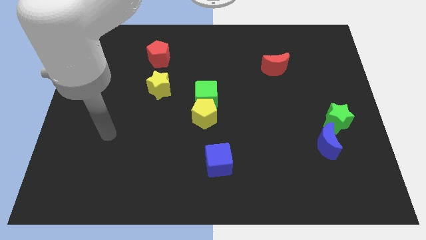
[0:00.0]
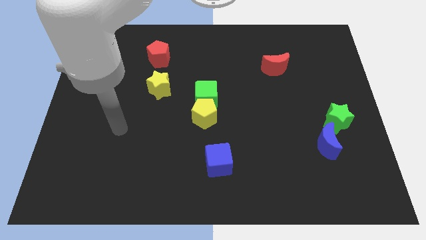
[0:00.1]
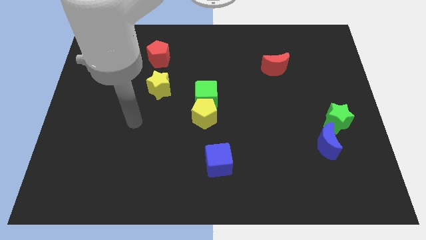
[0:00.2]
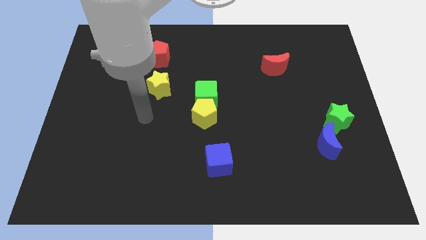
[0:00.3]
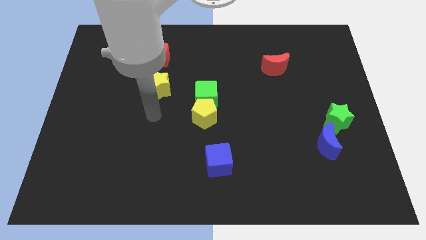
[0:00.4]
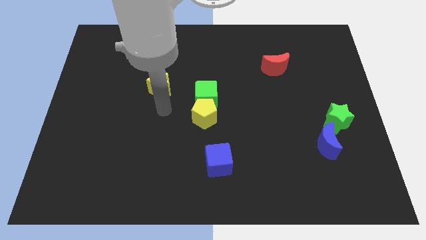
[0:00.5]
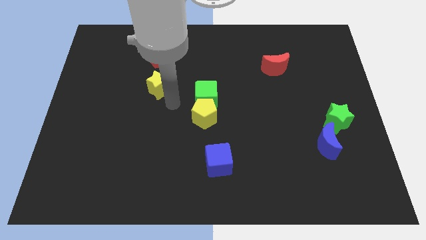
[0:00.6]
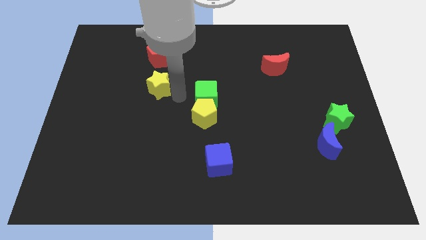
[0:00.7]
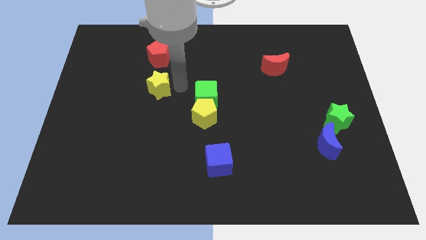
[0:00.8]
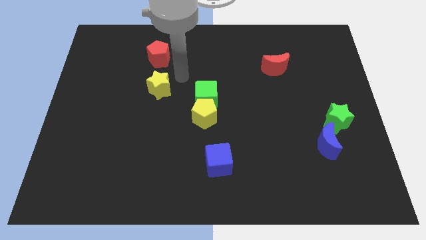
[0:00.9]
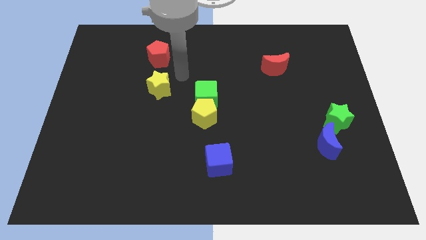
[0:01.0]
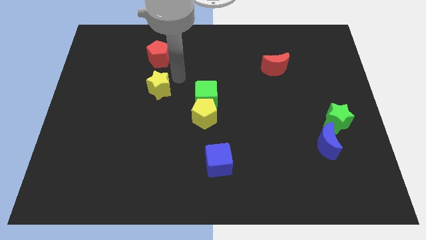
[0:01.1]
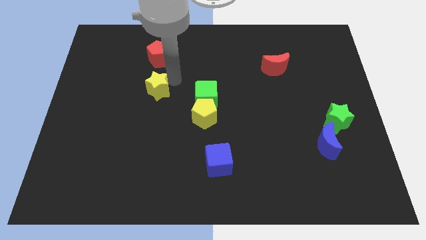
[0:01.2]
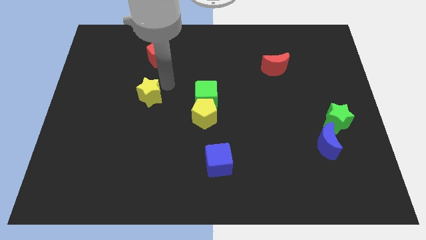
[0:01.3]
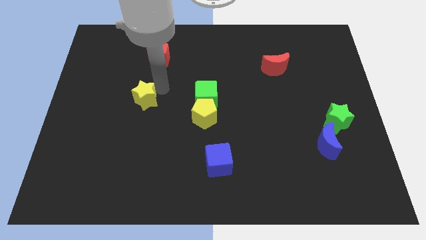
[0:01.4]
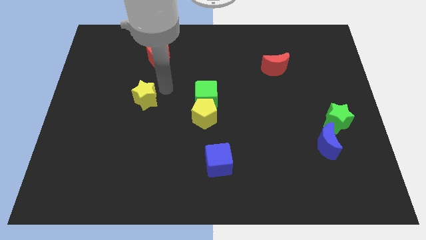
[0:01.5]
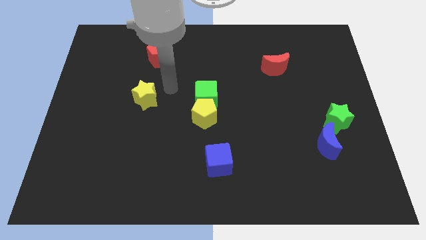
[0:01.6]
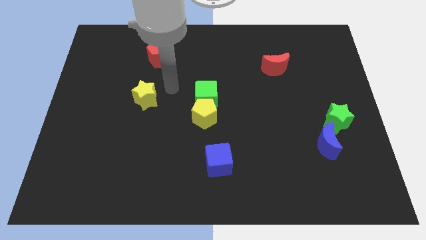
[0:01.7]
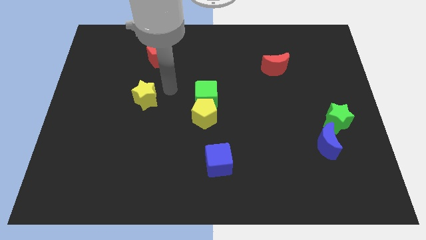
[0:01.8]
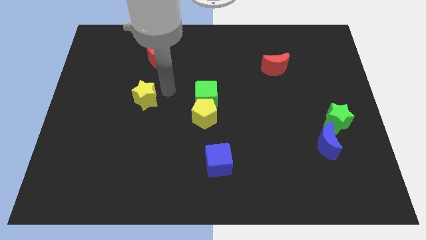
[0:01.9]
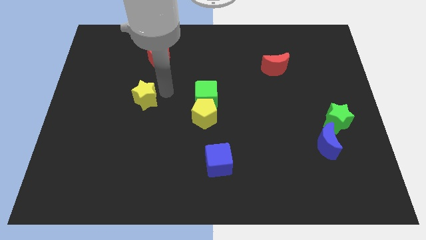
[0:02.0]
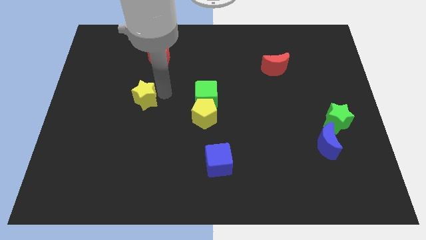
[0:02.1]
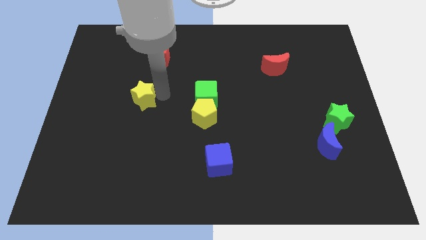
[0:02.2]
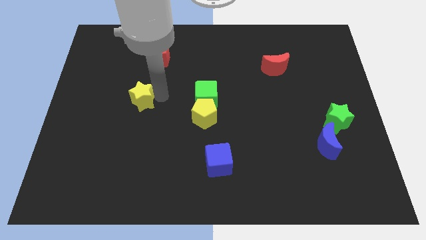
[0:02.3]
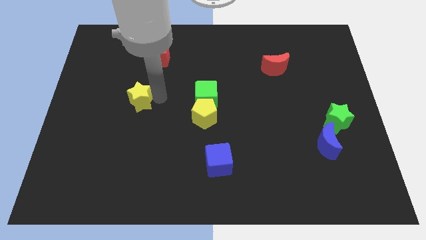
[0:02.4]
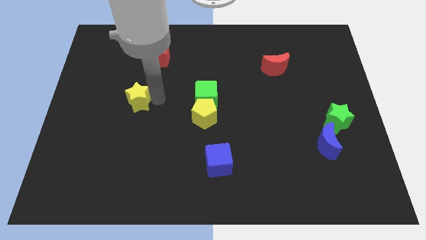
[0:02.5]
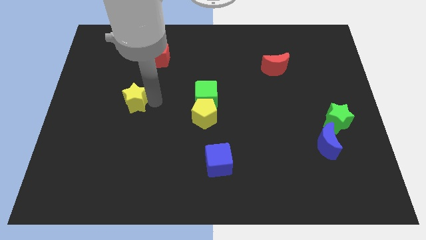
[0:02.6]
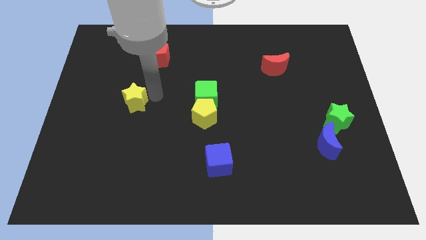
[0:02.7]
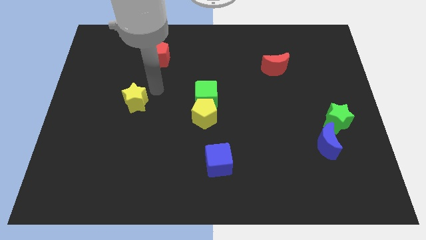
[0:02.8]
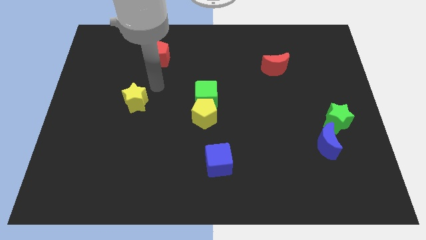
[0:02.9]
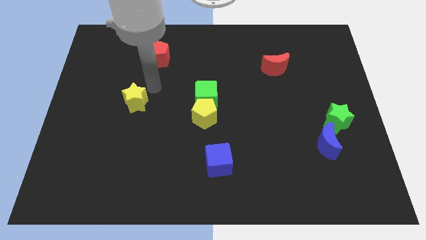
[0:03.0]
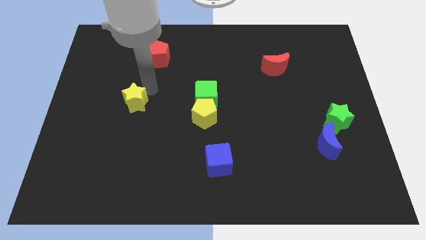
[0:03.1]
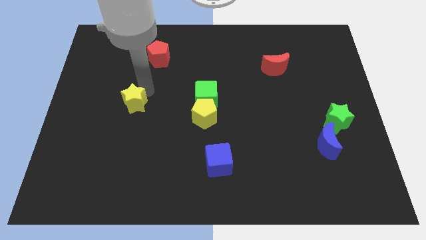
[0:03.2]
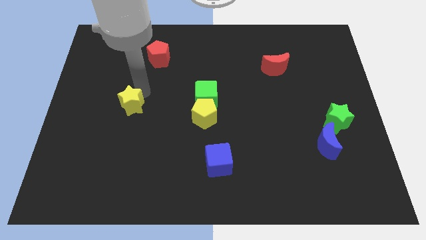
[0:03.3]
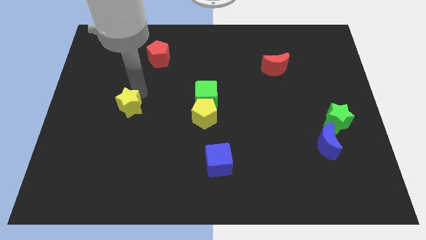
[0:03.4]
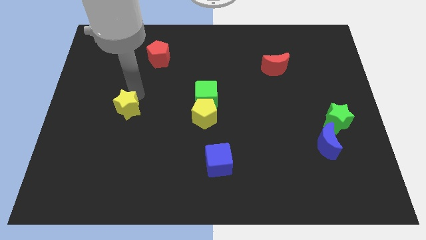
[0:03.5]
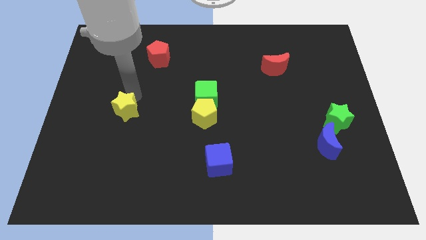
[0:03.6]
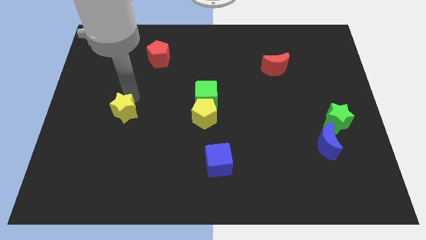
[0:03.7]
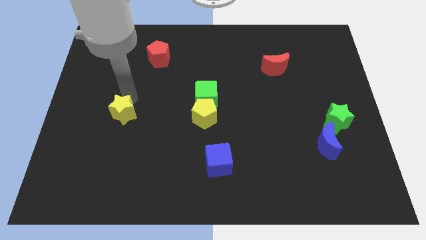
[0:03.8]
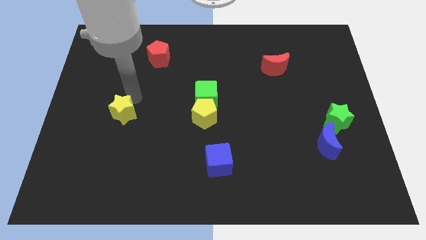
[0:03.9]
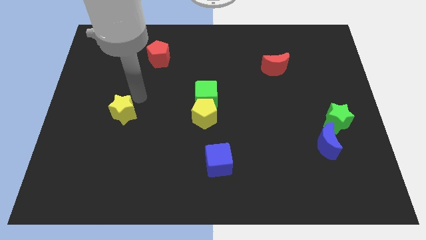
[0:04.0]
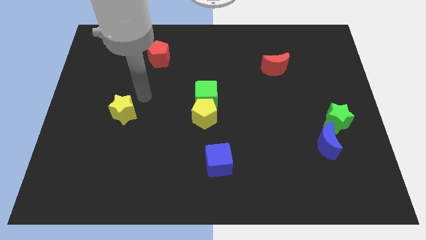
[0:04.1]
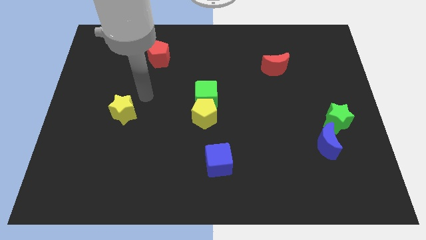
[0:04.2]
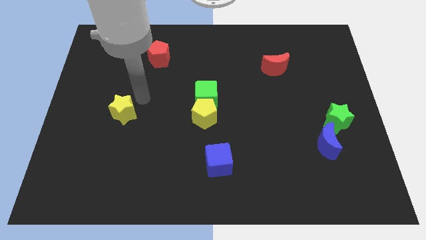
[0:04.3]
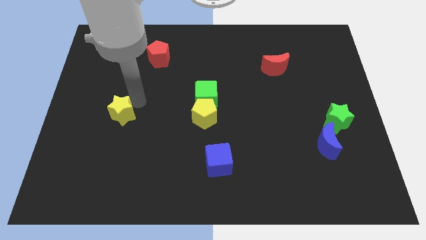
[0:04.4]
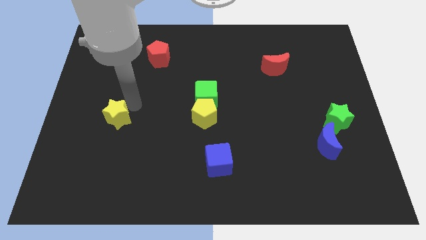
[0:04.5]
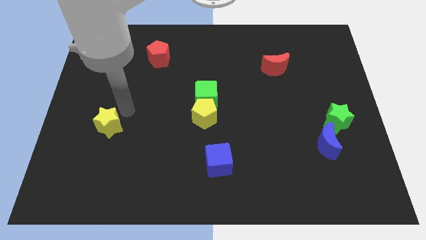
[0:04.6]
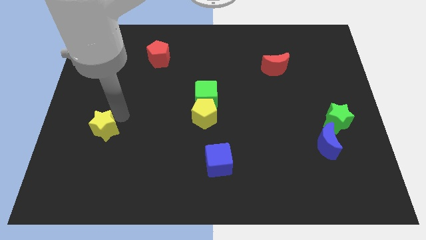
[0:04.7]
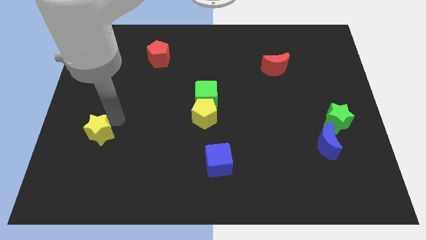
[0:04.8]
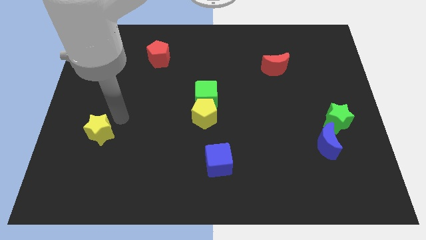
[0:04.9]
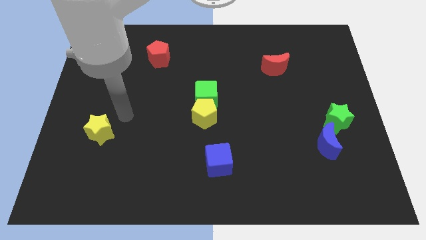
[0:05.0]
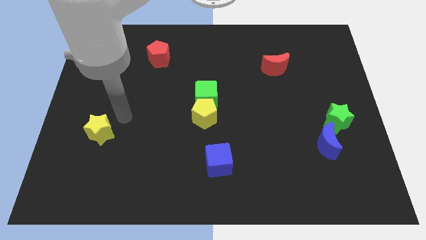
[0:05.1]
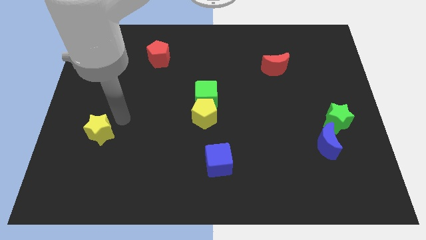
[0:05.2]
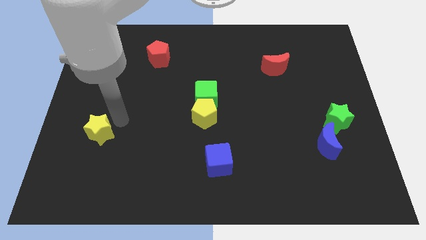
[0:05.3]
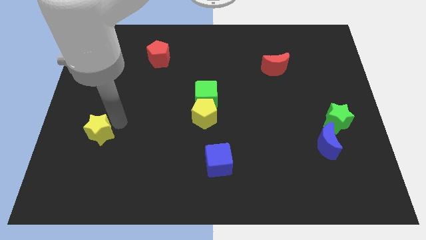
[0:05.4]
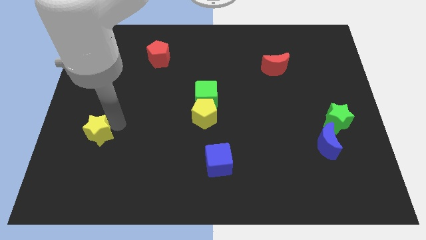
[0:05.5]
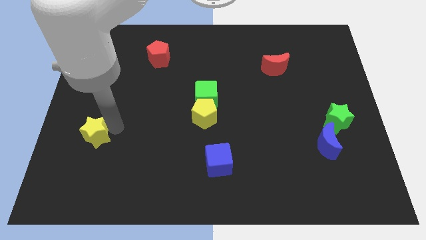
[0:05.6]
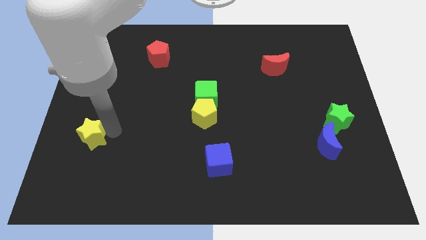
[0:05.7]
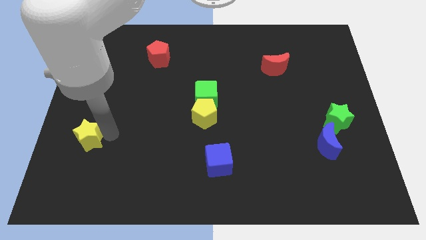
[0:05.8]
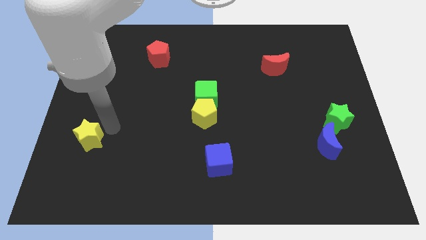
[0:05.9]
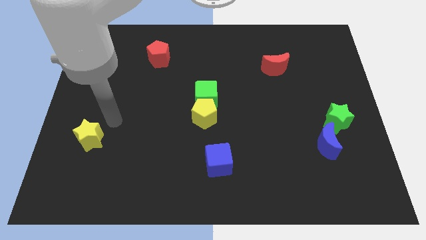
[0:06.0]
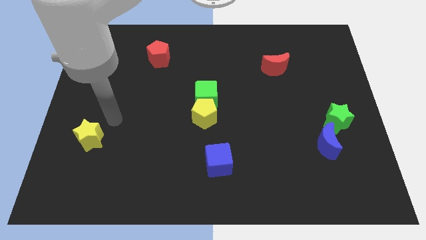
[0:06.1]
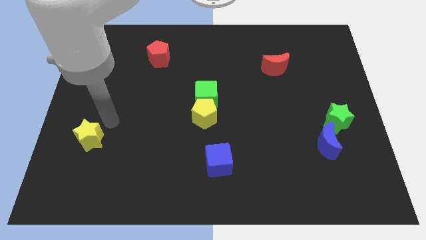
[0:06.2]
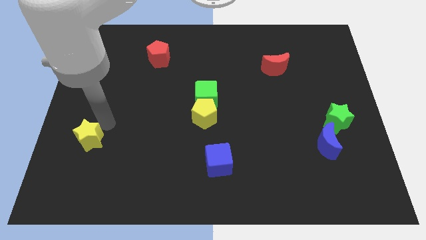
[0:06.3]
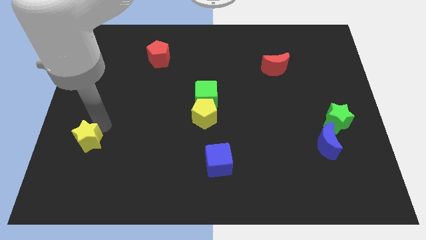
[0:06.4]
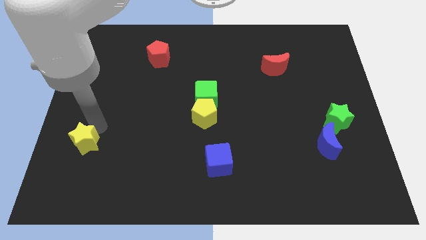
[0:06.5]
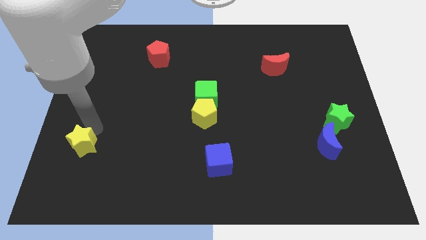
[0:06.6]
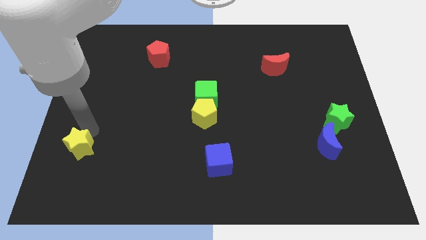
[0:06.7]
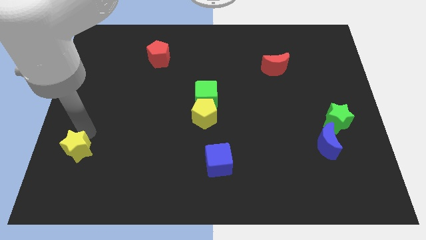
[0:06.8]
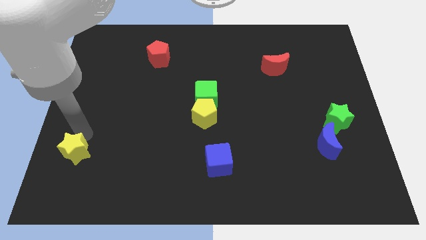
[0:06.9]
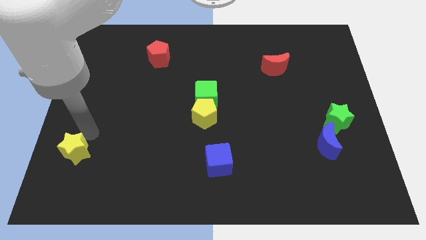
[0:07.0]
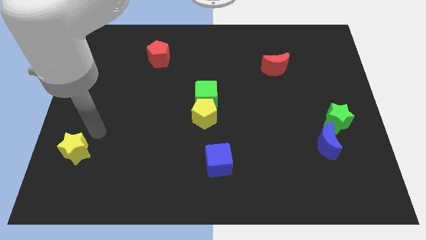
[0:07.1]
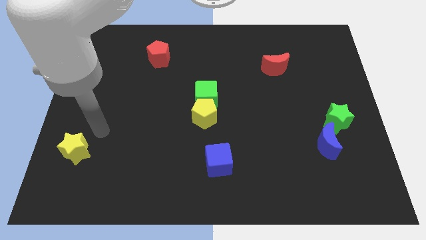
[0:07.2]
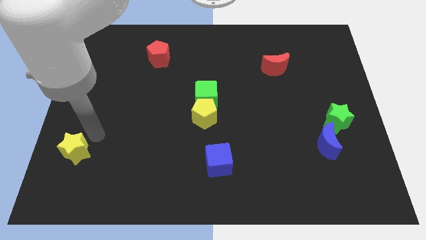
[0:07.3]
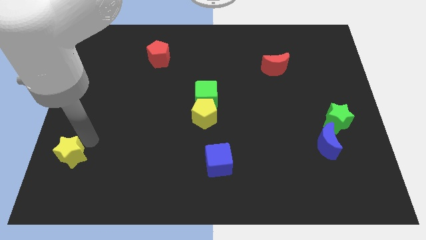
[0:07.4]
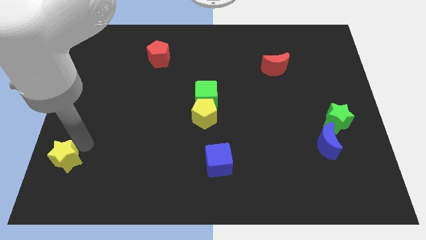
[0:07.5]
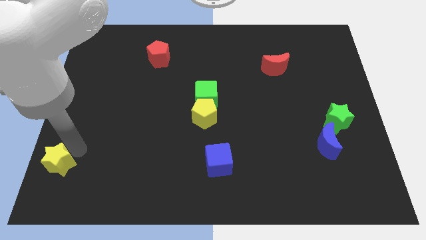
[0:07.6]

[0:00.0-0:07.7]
push the yellow star to the bottom left of the board
